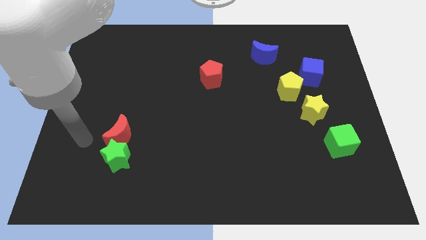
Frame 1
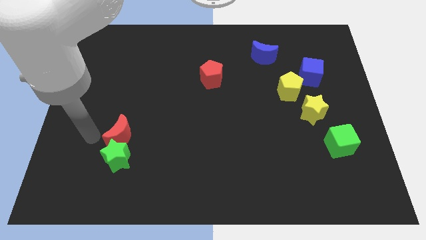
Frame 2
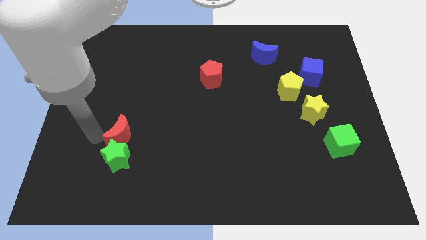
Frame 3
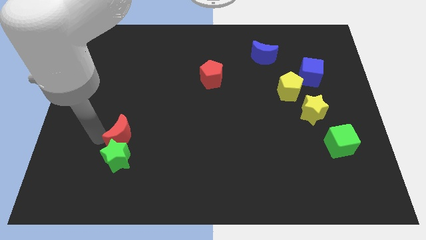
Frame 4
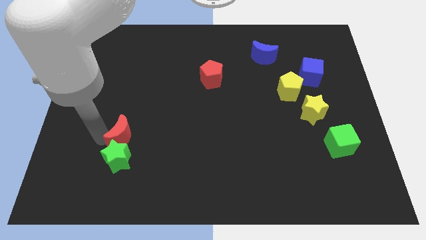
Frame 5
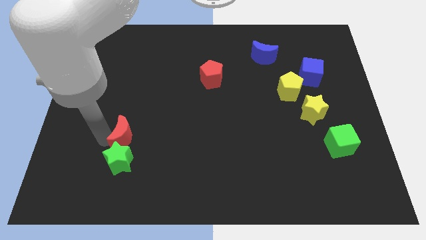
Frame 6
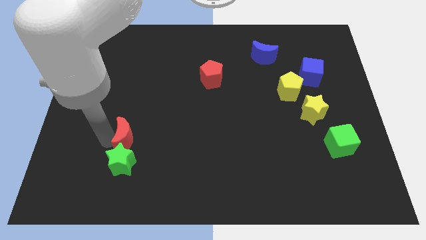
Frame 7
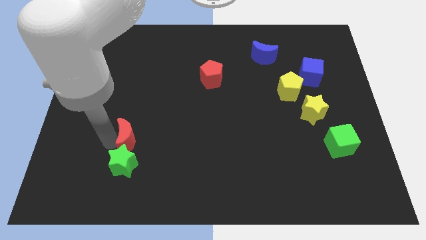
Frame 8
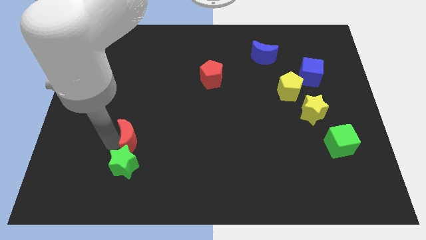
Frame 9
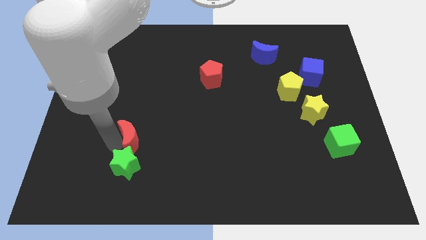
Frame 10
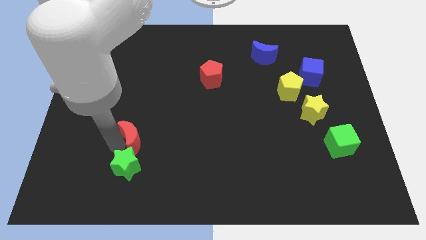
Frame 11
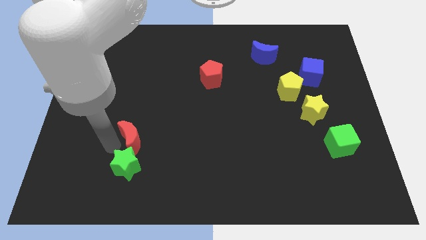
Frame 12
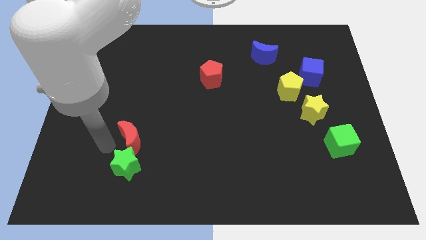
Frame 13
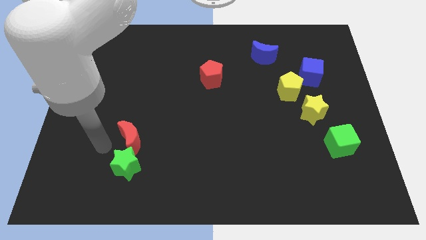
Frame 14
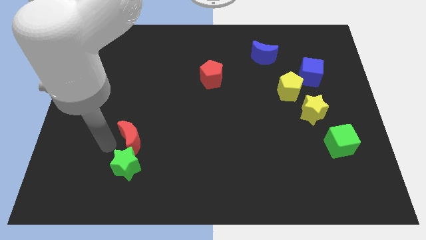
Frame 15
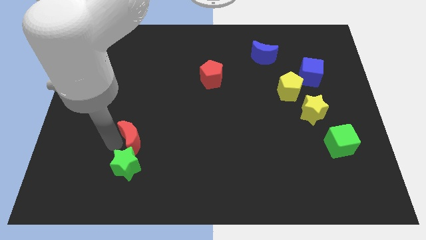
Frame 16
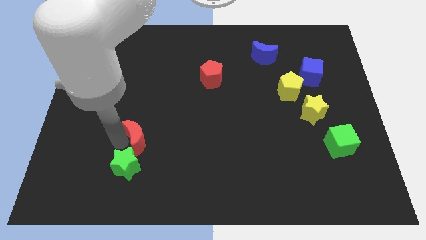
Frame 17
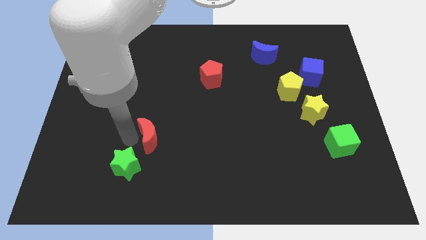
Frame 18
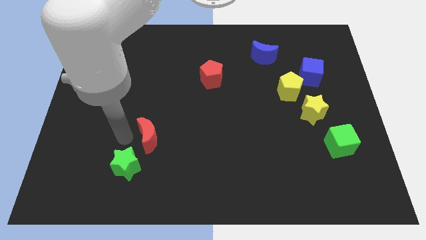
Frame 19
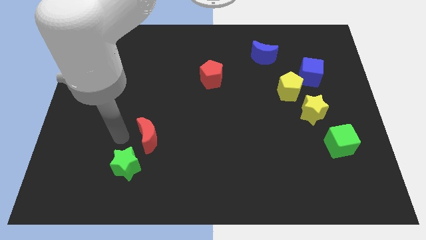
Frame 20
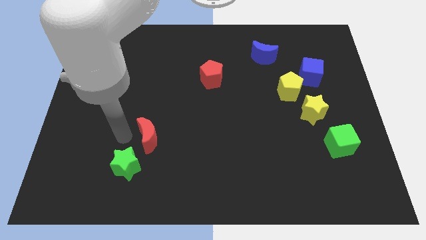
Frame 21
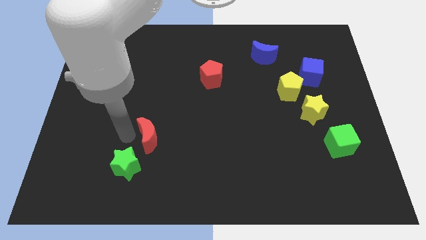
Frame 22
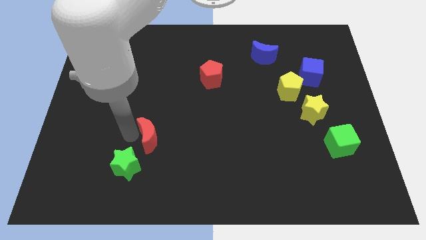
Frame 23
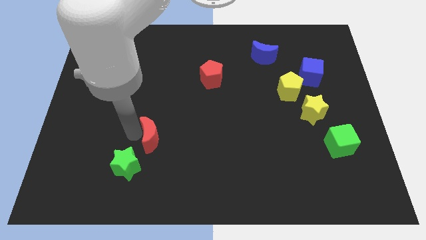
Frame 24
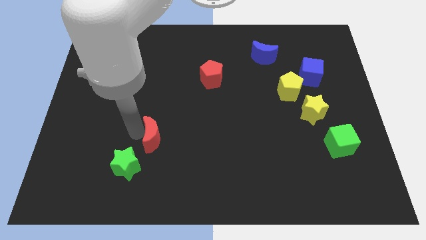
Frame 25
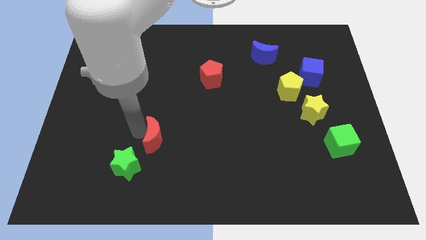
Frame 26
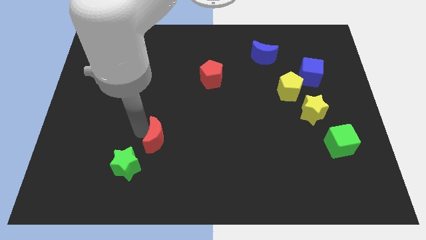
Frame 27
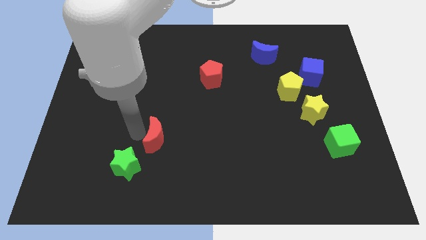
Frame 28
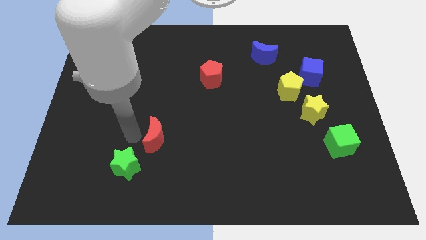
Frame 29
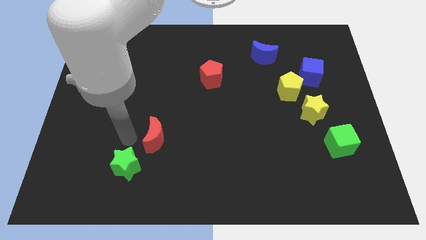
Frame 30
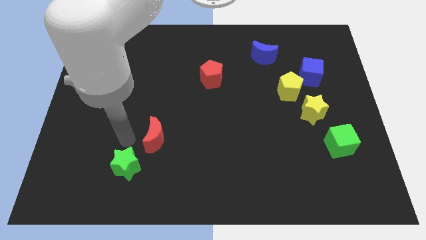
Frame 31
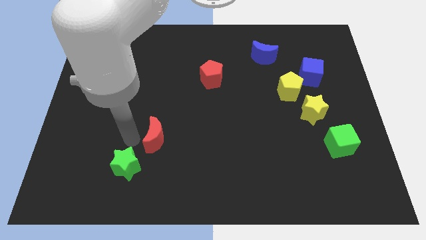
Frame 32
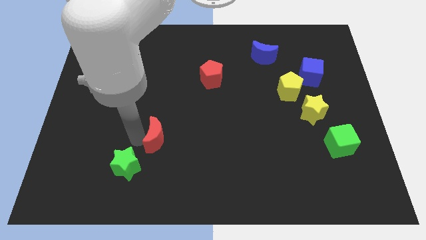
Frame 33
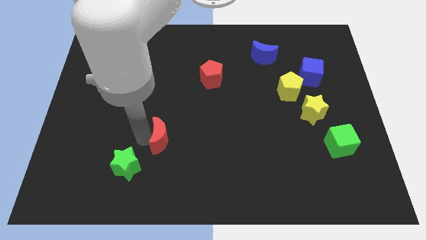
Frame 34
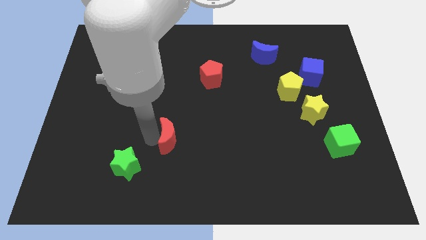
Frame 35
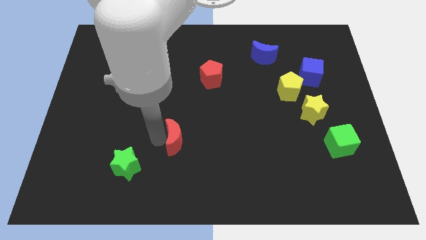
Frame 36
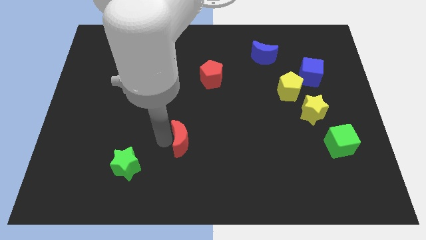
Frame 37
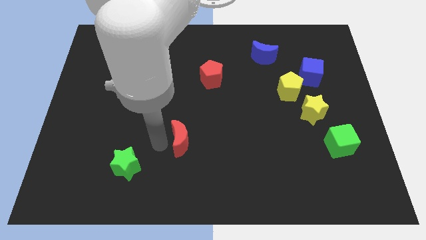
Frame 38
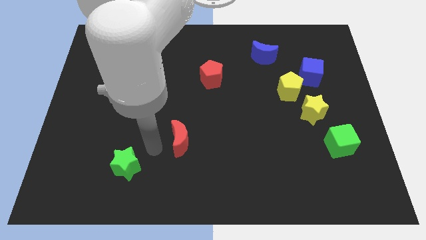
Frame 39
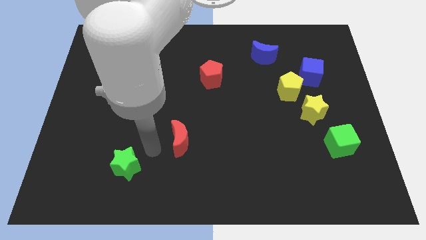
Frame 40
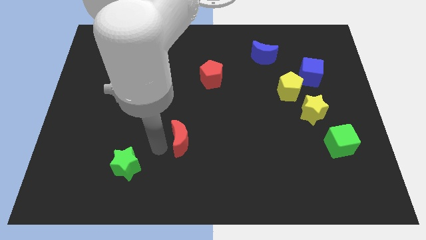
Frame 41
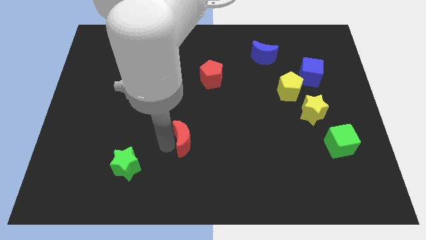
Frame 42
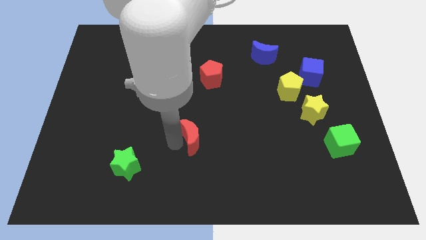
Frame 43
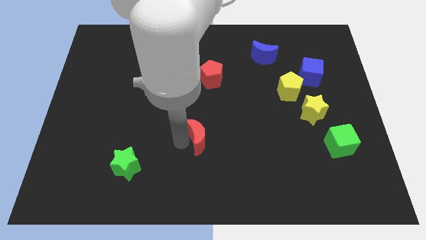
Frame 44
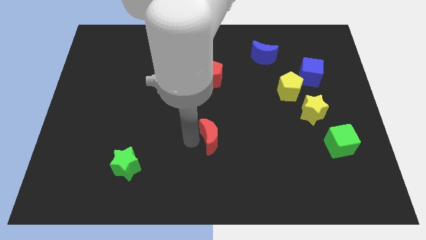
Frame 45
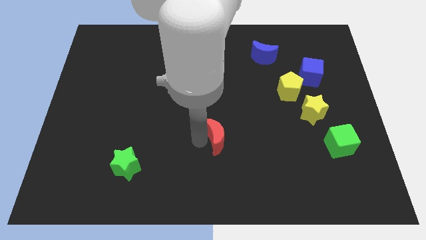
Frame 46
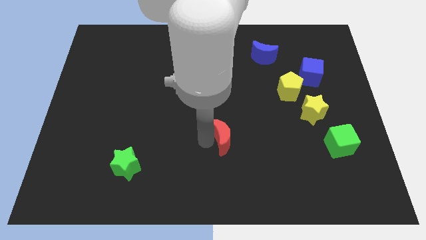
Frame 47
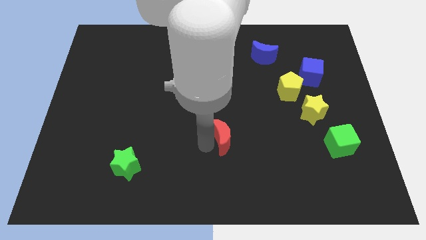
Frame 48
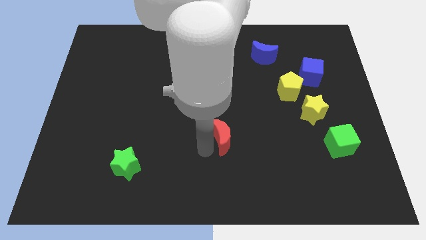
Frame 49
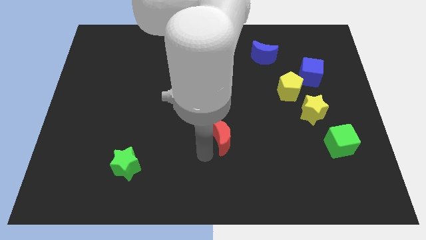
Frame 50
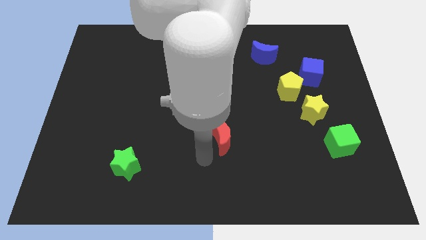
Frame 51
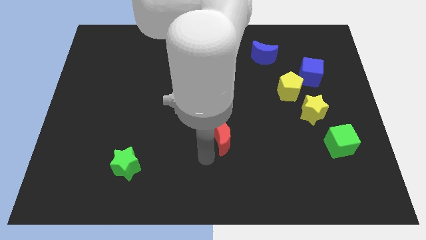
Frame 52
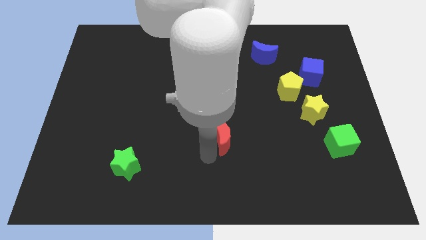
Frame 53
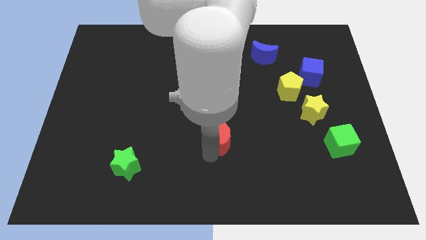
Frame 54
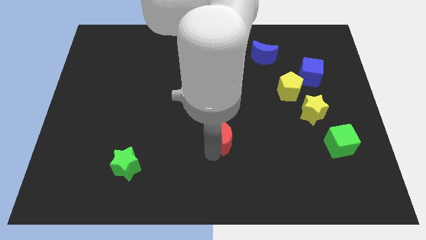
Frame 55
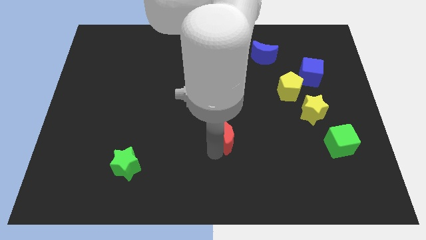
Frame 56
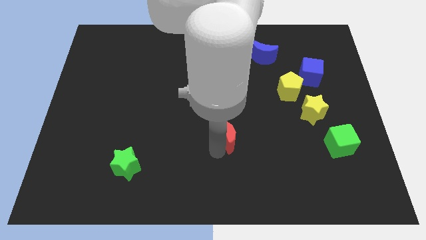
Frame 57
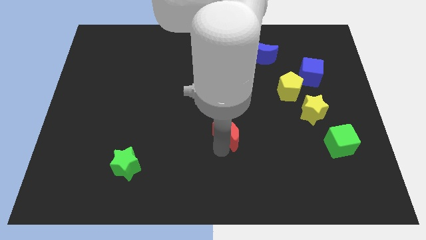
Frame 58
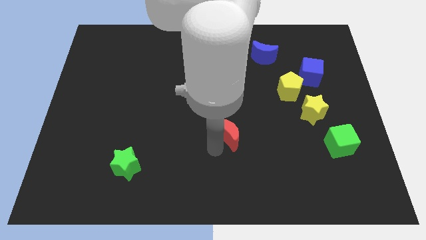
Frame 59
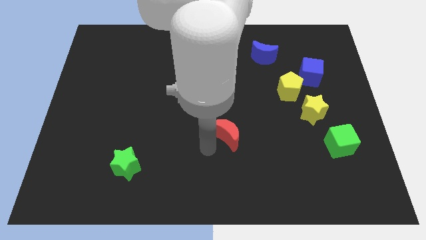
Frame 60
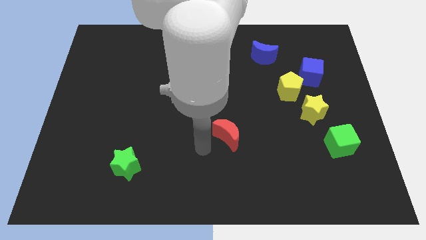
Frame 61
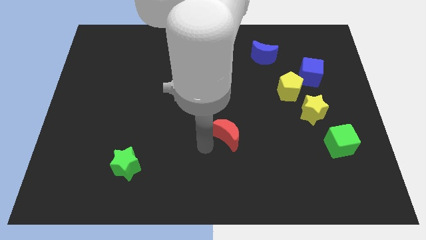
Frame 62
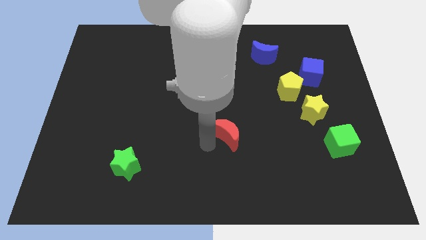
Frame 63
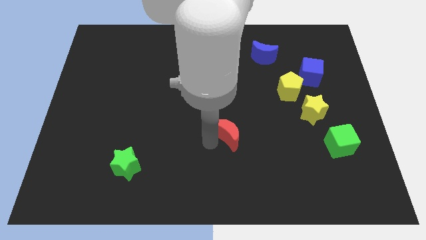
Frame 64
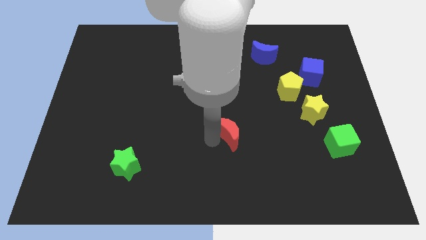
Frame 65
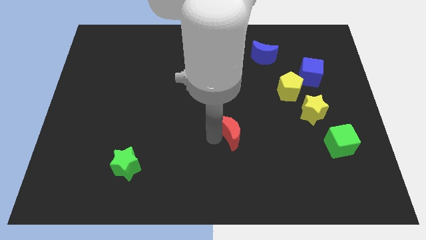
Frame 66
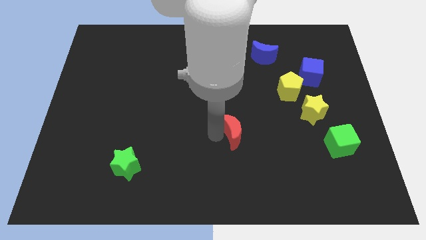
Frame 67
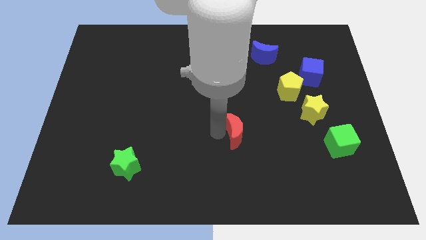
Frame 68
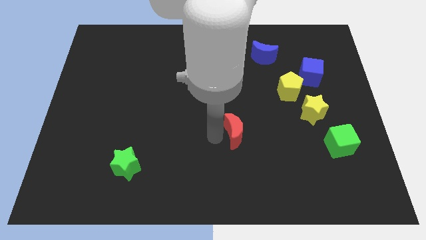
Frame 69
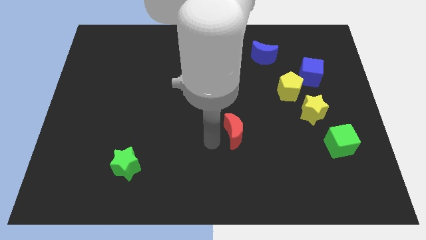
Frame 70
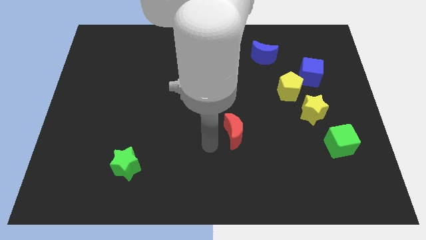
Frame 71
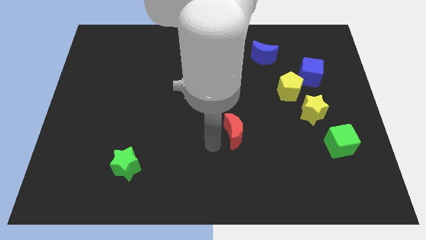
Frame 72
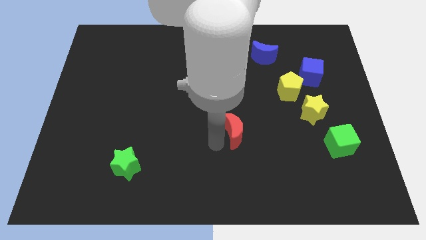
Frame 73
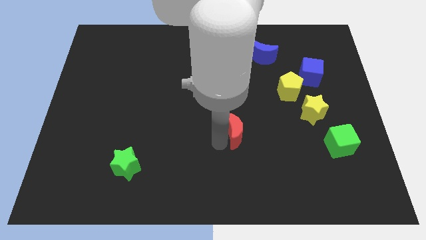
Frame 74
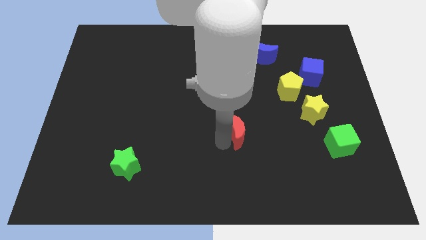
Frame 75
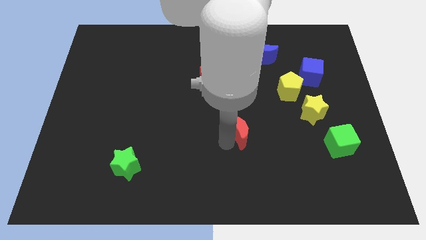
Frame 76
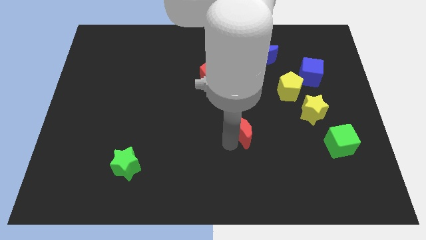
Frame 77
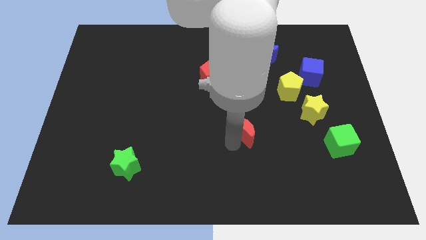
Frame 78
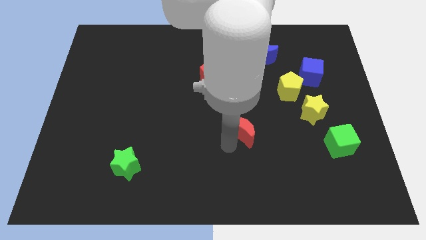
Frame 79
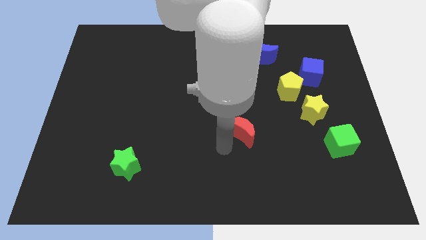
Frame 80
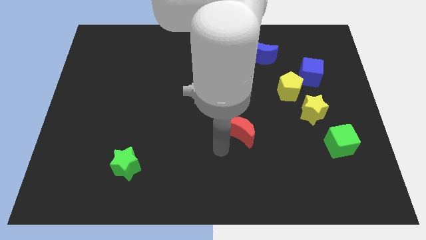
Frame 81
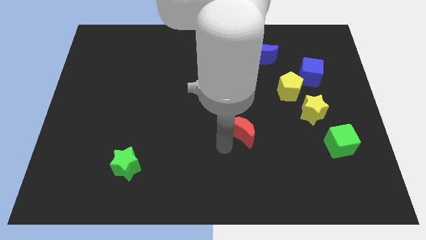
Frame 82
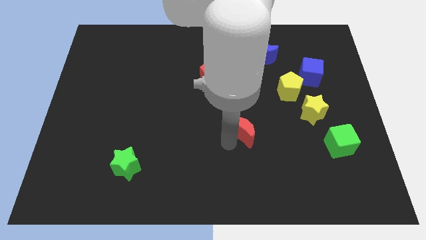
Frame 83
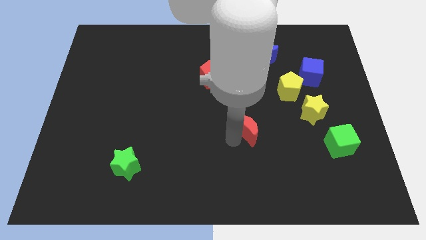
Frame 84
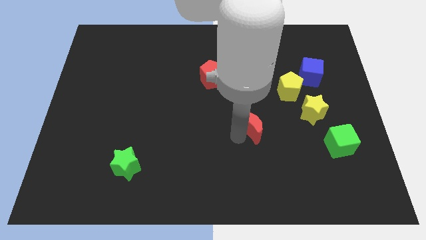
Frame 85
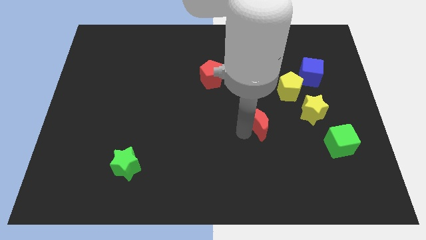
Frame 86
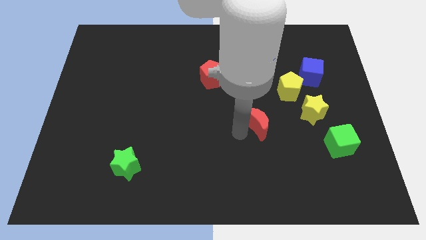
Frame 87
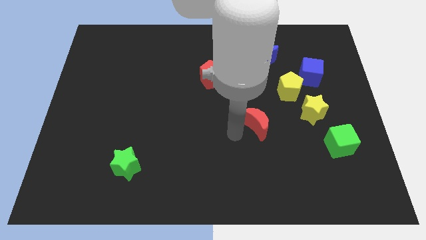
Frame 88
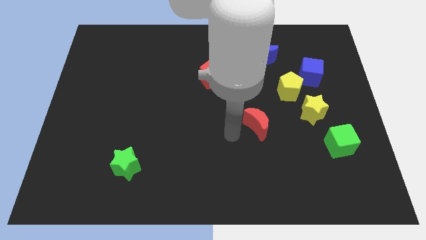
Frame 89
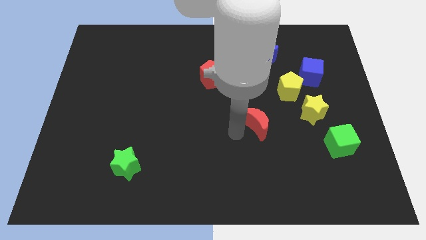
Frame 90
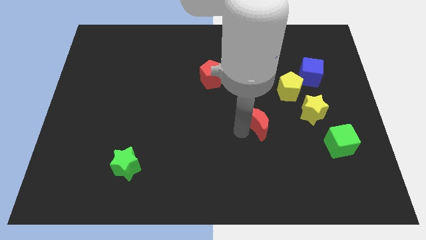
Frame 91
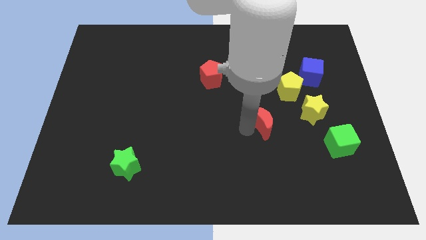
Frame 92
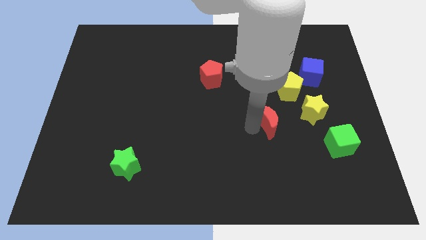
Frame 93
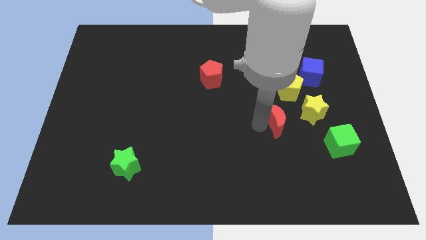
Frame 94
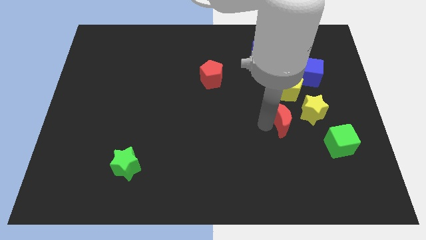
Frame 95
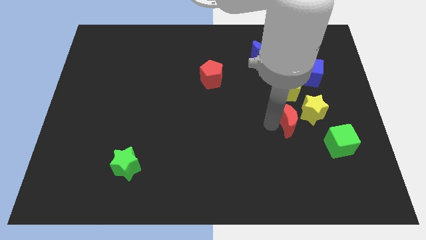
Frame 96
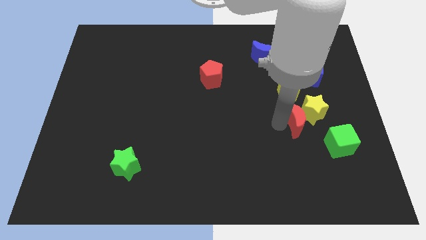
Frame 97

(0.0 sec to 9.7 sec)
put the red moon next to the yellow star
